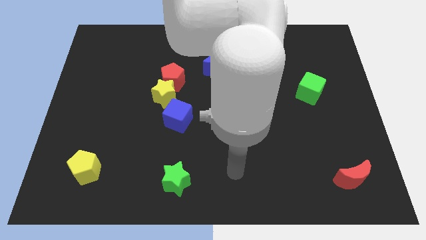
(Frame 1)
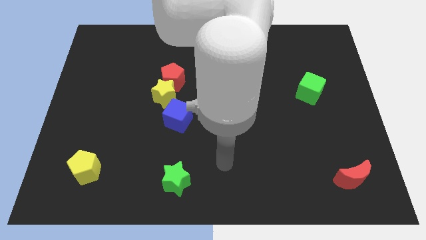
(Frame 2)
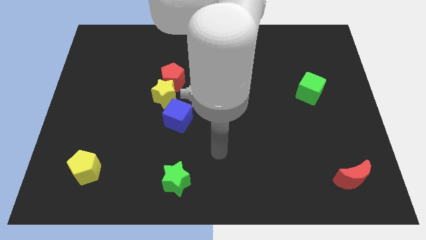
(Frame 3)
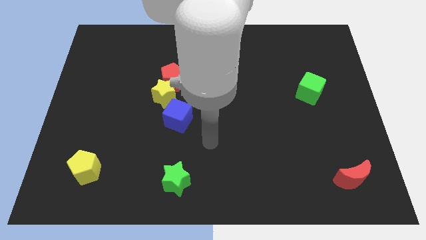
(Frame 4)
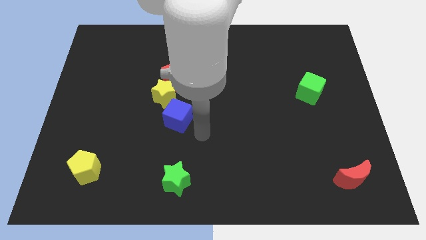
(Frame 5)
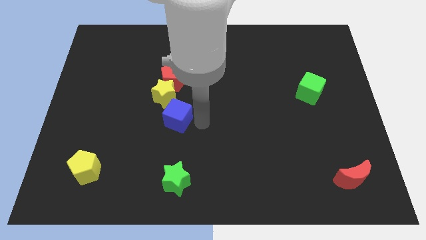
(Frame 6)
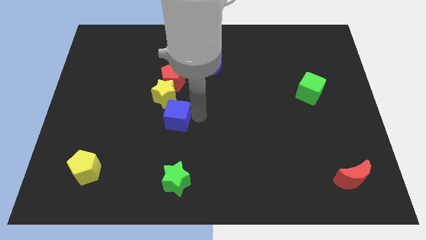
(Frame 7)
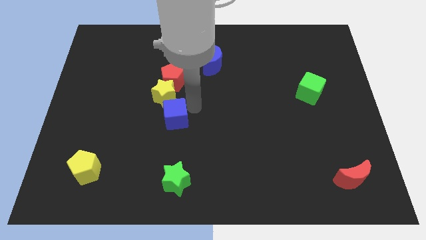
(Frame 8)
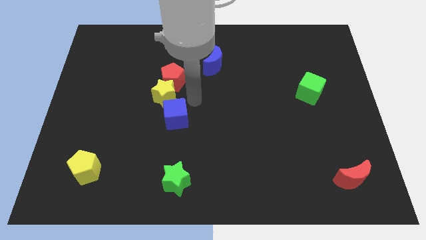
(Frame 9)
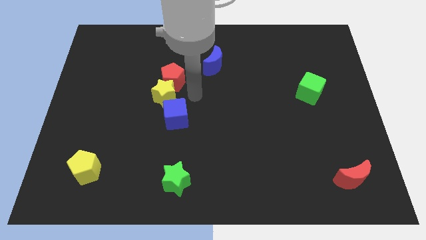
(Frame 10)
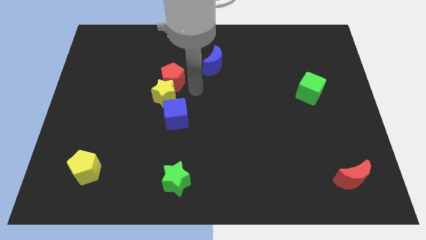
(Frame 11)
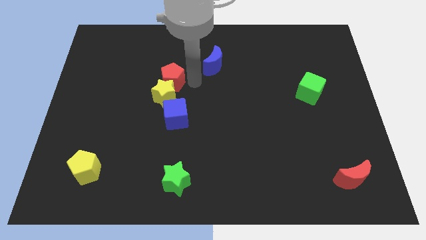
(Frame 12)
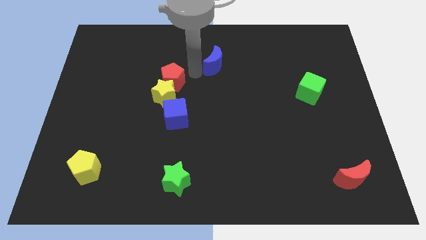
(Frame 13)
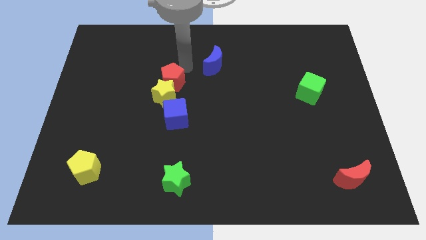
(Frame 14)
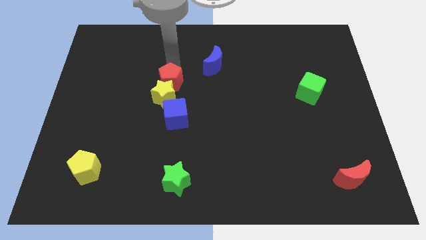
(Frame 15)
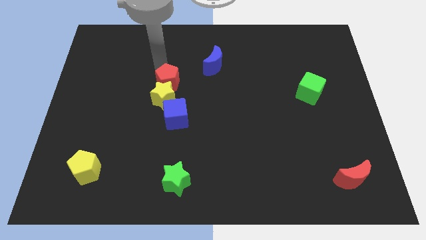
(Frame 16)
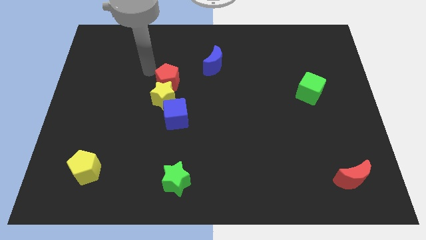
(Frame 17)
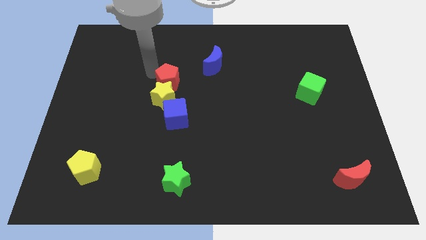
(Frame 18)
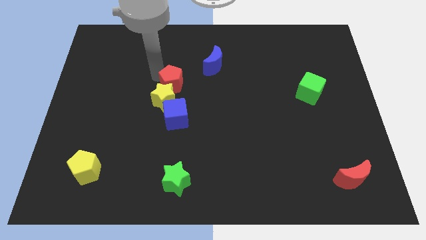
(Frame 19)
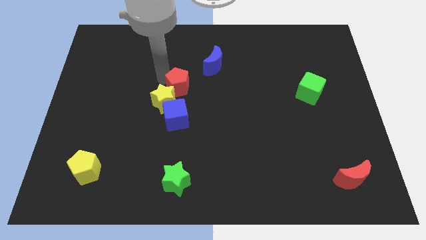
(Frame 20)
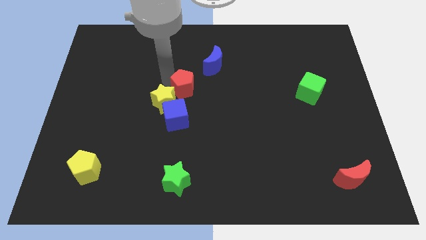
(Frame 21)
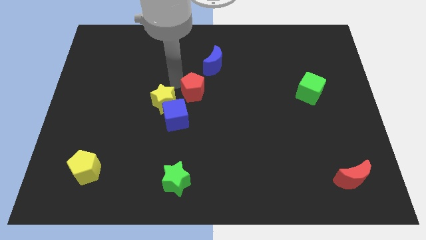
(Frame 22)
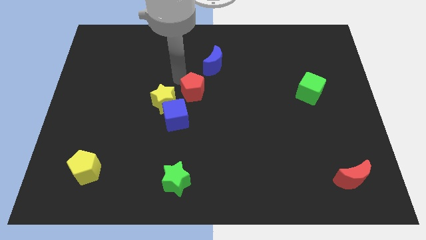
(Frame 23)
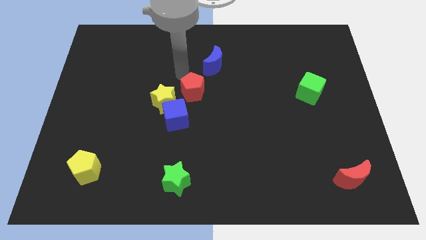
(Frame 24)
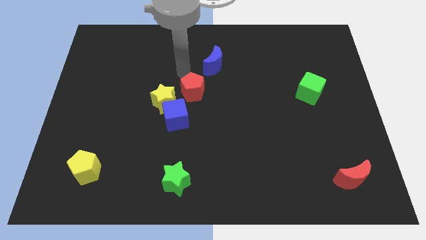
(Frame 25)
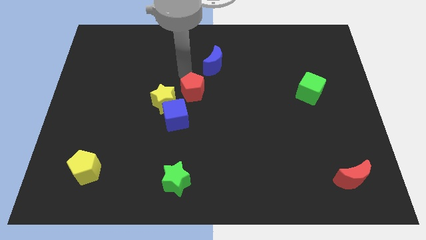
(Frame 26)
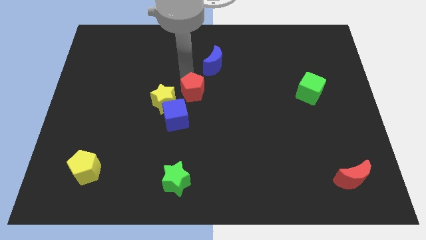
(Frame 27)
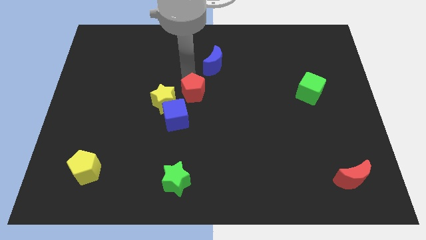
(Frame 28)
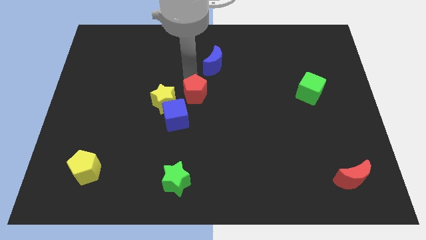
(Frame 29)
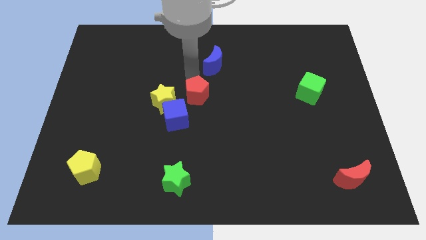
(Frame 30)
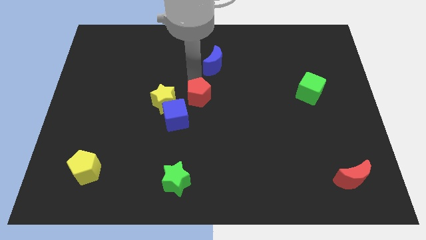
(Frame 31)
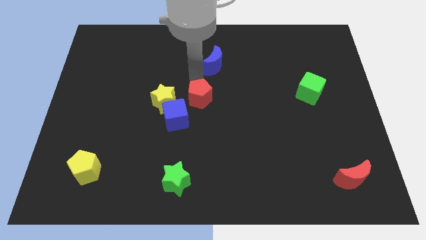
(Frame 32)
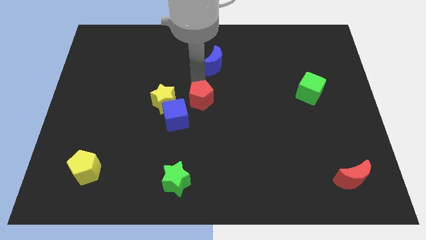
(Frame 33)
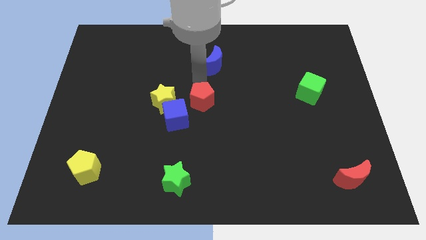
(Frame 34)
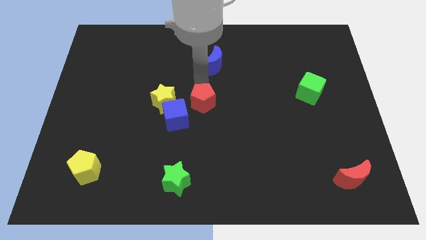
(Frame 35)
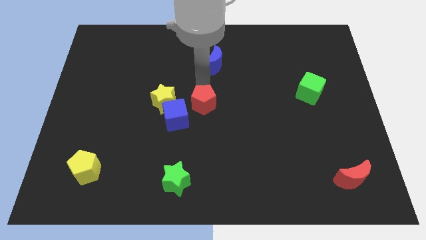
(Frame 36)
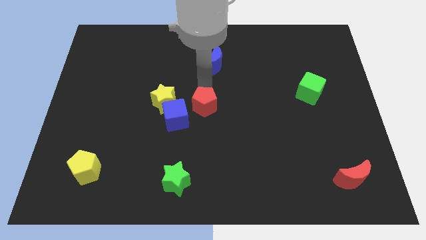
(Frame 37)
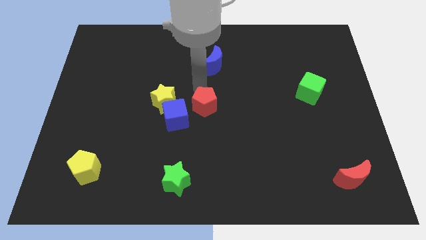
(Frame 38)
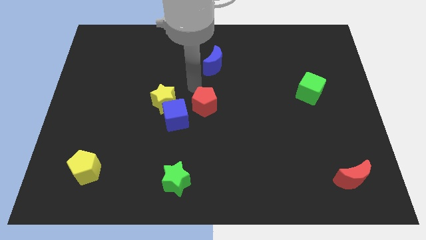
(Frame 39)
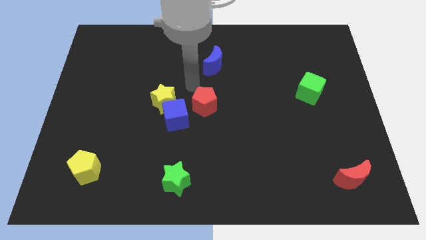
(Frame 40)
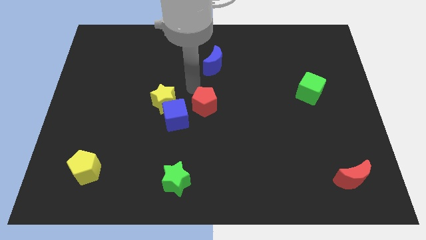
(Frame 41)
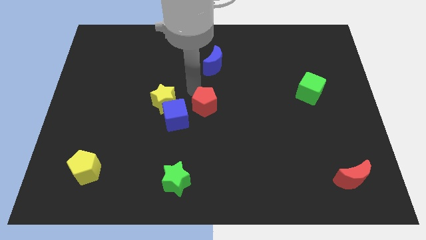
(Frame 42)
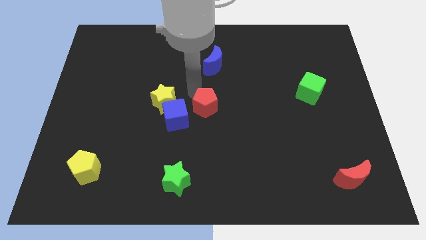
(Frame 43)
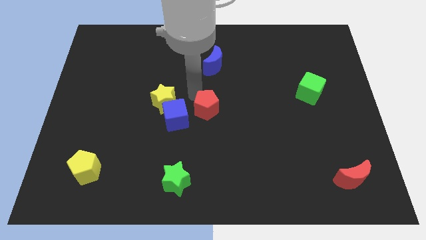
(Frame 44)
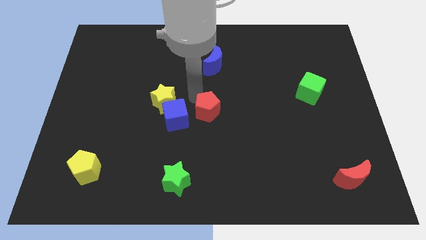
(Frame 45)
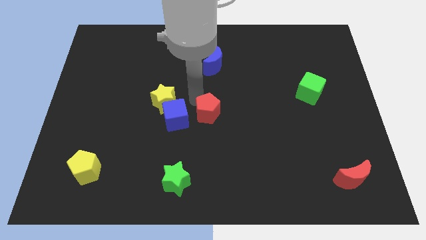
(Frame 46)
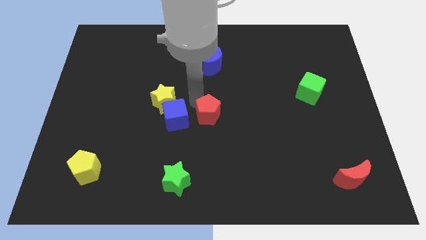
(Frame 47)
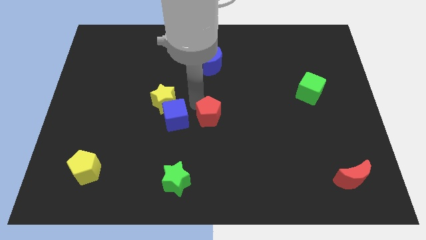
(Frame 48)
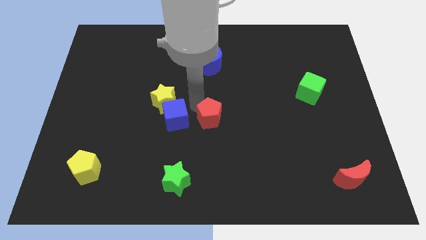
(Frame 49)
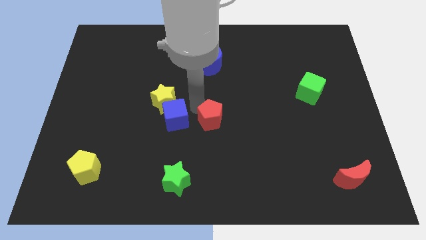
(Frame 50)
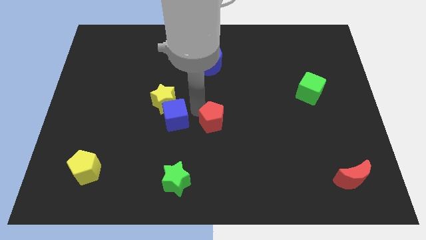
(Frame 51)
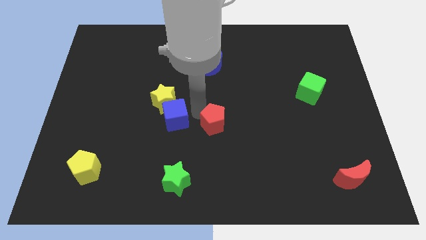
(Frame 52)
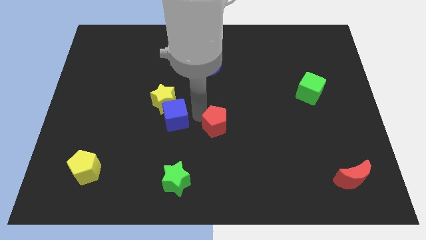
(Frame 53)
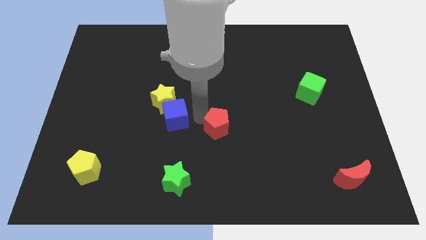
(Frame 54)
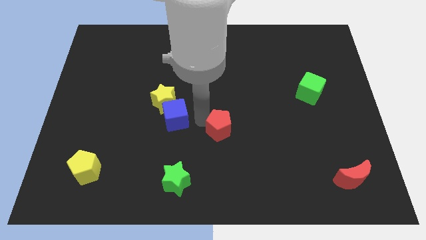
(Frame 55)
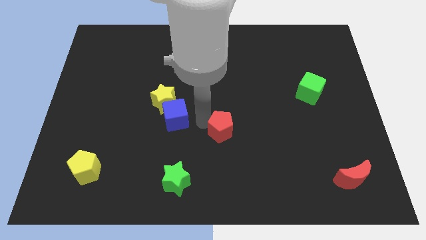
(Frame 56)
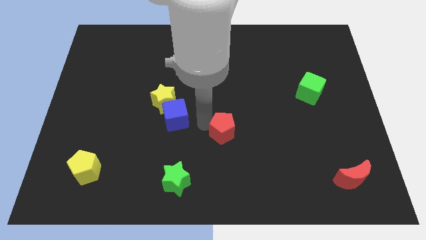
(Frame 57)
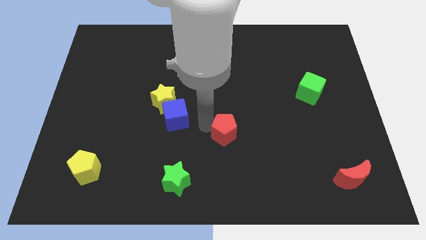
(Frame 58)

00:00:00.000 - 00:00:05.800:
slide the red pentagon down and right

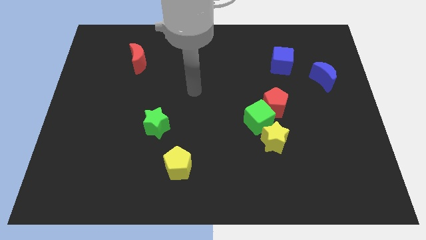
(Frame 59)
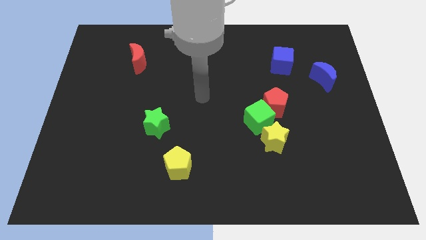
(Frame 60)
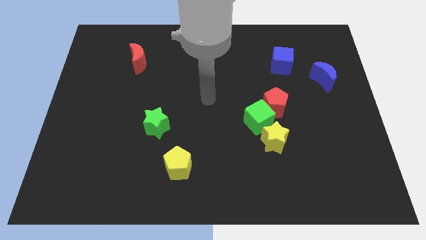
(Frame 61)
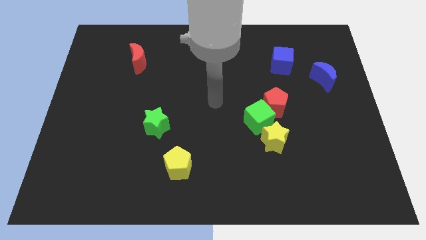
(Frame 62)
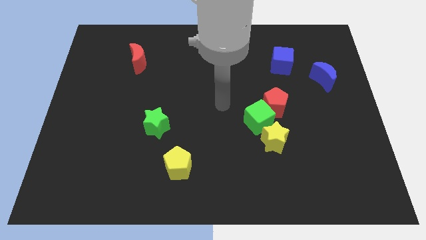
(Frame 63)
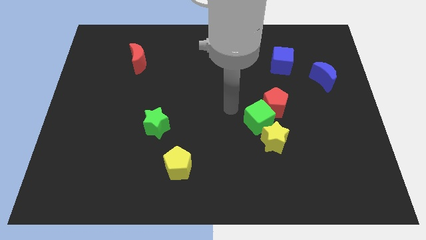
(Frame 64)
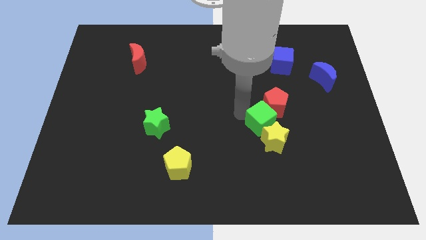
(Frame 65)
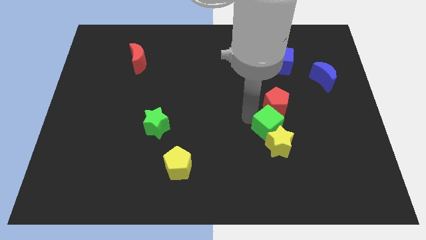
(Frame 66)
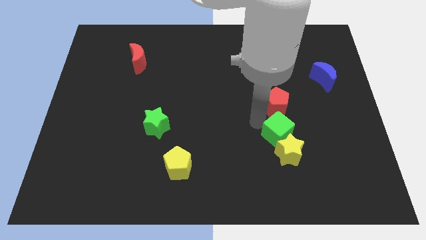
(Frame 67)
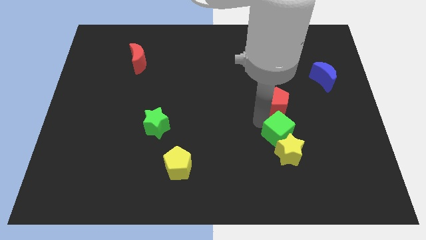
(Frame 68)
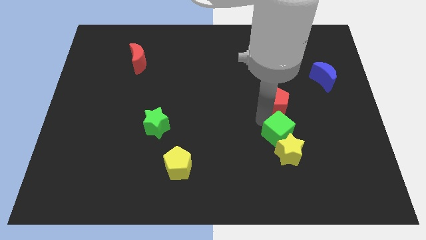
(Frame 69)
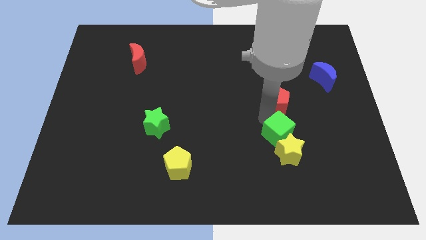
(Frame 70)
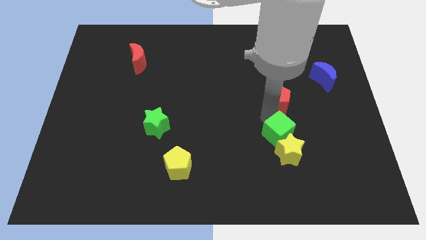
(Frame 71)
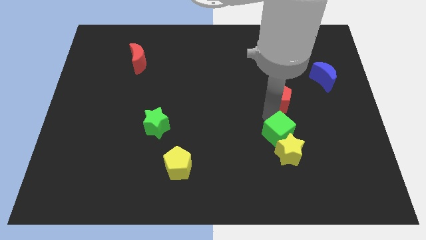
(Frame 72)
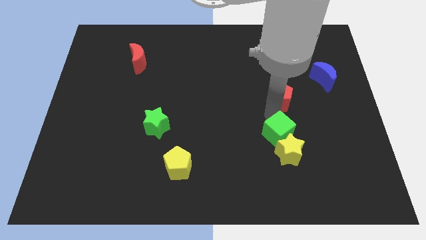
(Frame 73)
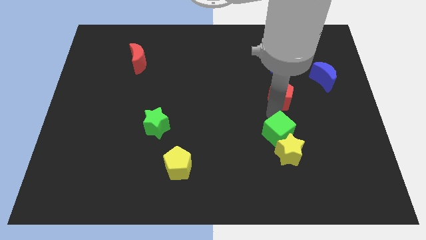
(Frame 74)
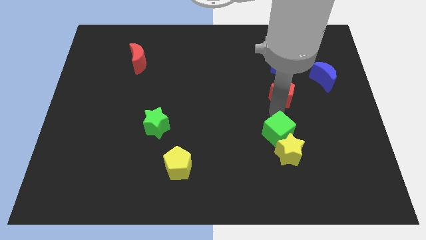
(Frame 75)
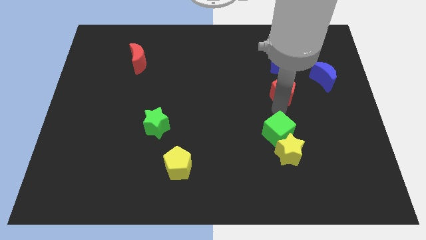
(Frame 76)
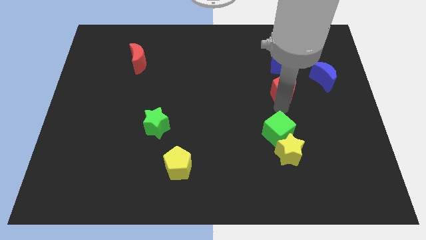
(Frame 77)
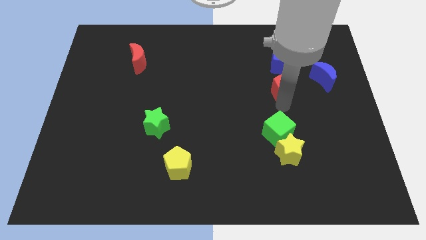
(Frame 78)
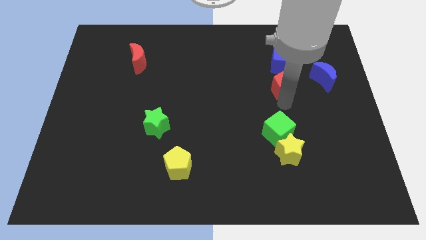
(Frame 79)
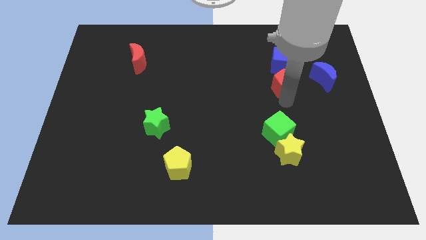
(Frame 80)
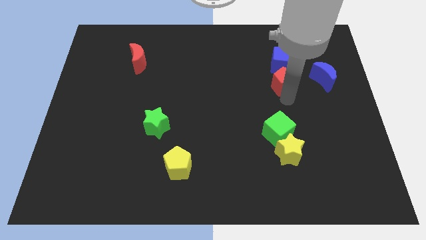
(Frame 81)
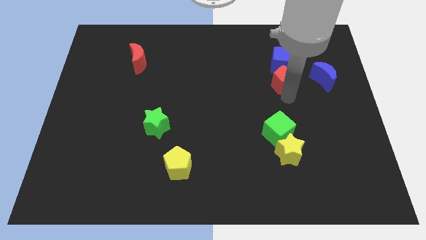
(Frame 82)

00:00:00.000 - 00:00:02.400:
slightly move the red pentagon upwards and to the right diagonally
